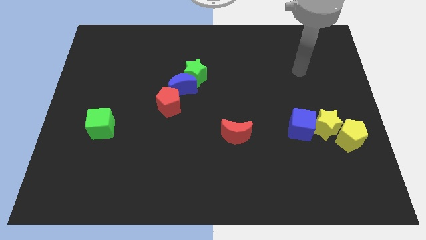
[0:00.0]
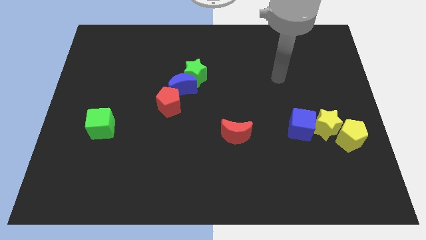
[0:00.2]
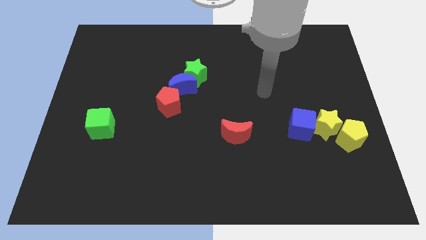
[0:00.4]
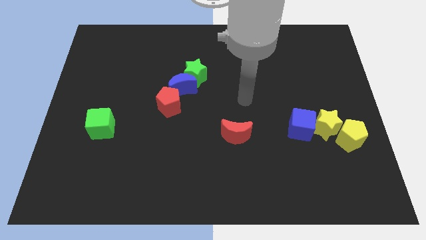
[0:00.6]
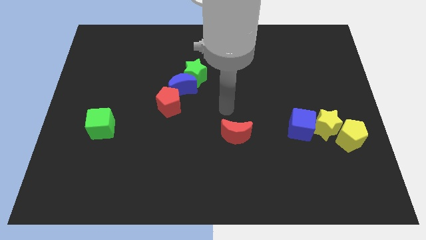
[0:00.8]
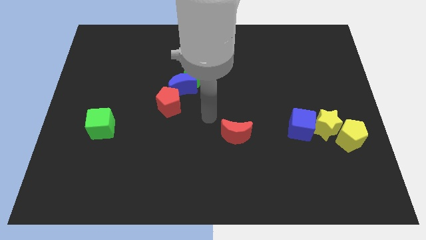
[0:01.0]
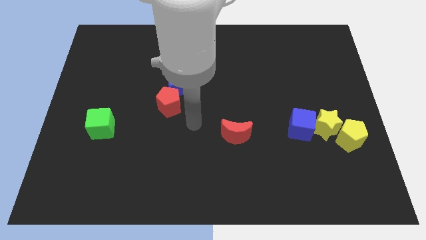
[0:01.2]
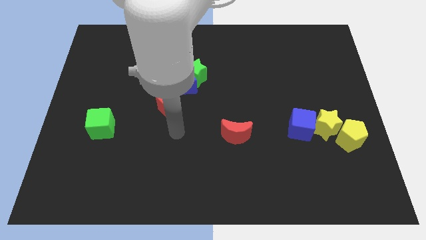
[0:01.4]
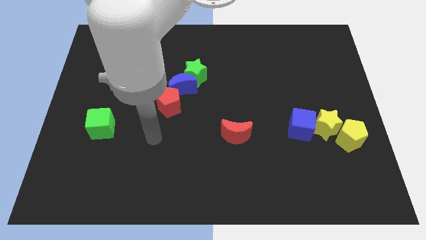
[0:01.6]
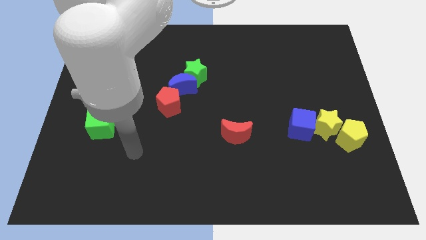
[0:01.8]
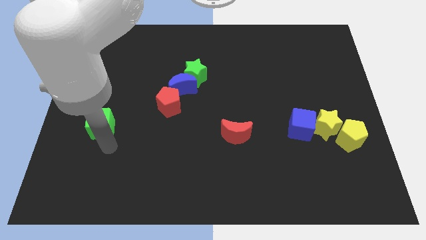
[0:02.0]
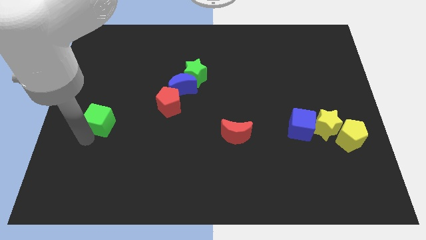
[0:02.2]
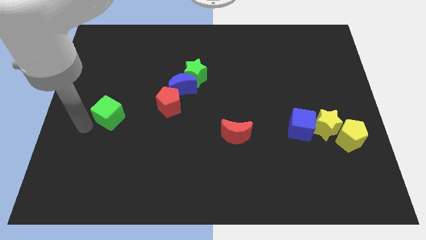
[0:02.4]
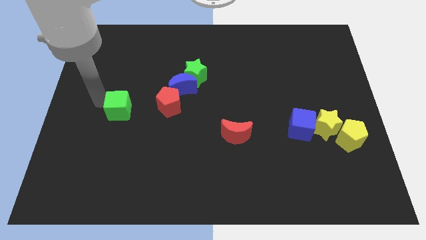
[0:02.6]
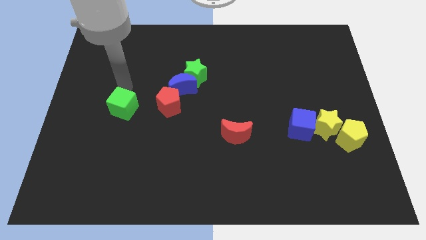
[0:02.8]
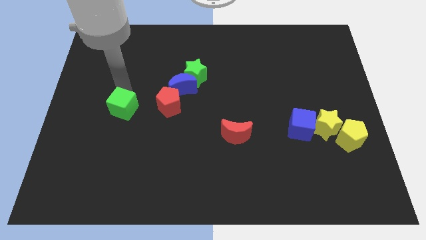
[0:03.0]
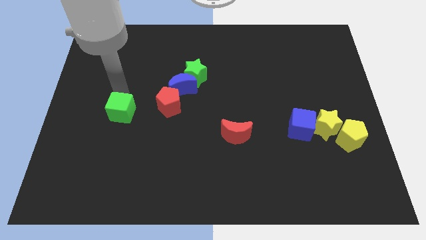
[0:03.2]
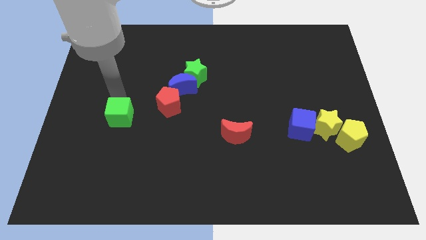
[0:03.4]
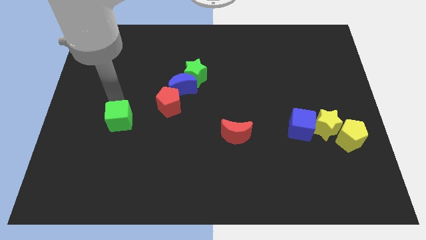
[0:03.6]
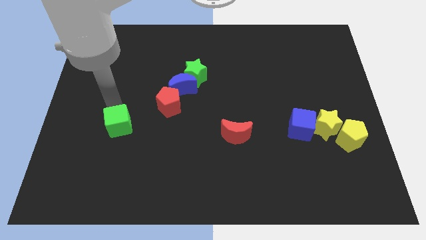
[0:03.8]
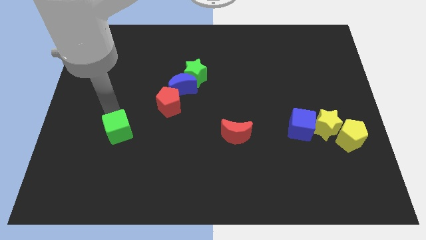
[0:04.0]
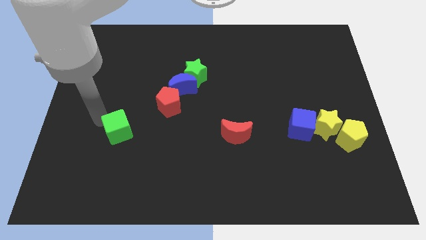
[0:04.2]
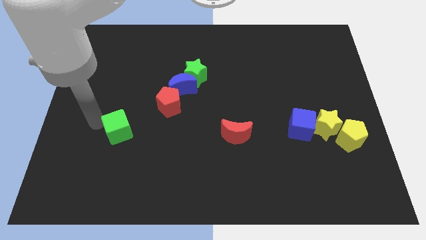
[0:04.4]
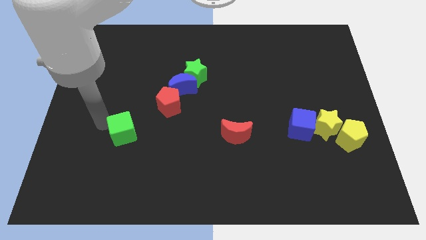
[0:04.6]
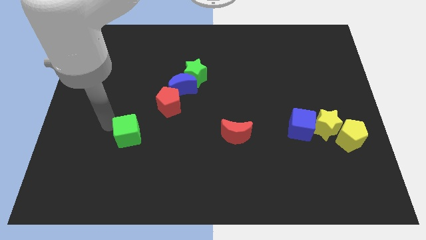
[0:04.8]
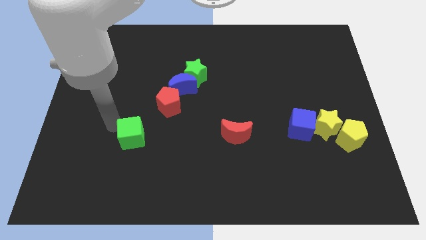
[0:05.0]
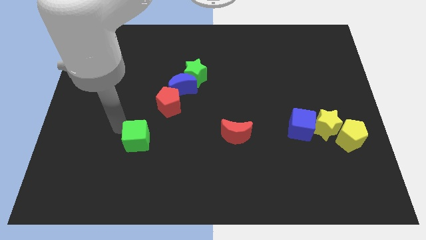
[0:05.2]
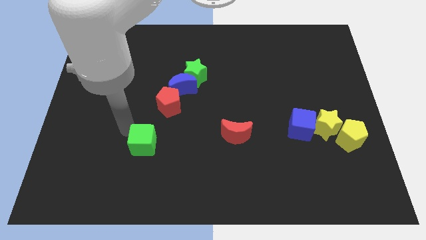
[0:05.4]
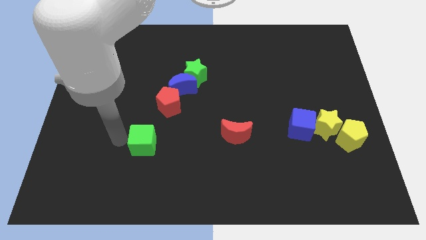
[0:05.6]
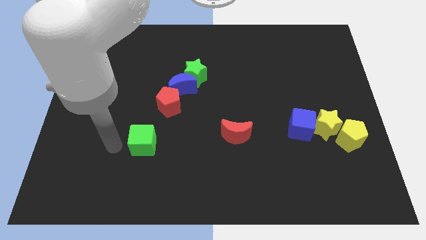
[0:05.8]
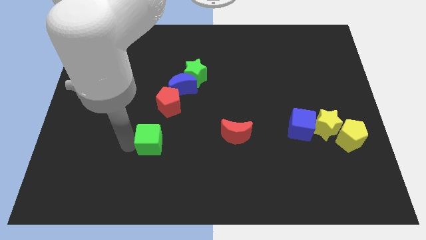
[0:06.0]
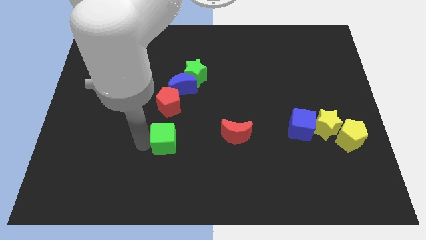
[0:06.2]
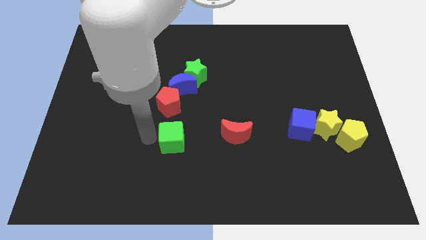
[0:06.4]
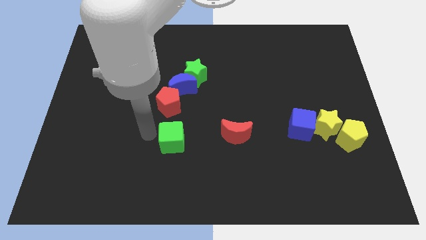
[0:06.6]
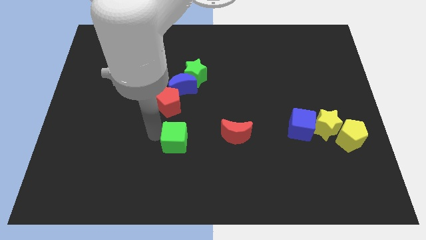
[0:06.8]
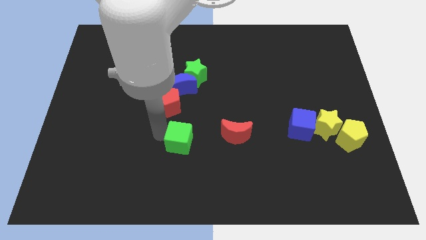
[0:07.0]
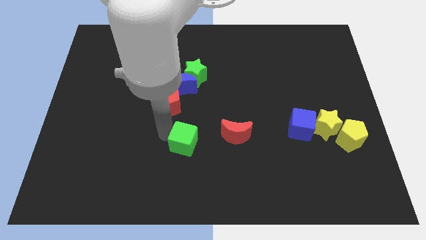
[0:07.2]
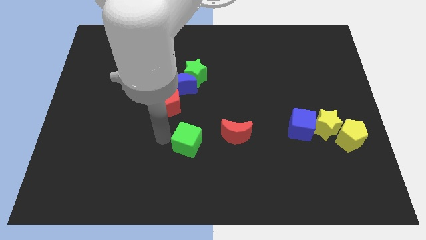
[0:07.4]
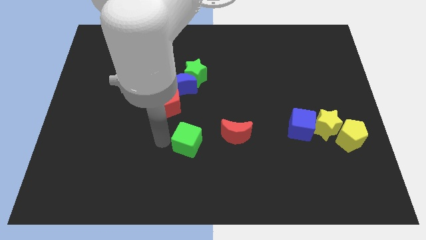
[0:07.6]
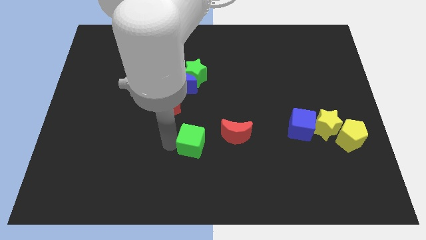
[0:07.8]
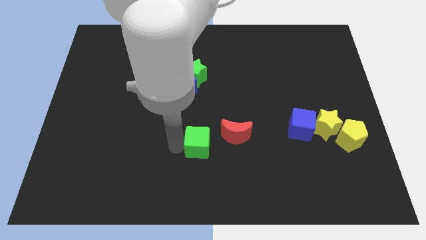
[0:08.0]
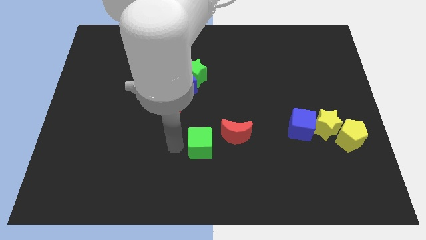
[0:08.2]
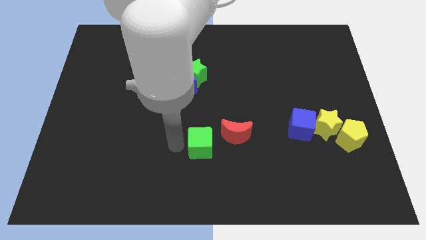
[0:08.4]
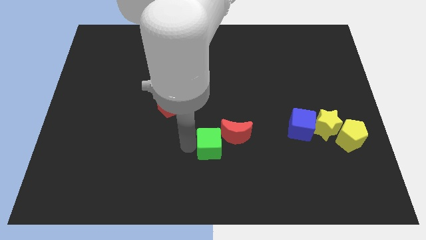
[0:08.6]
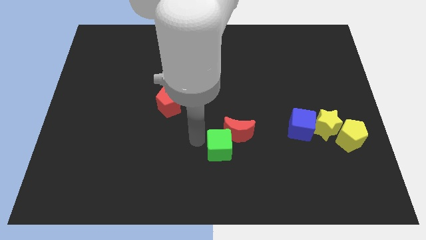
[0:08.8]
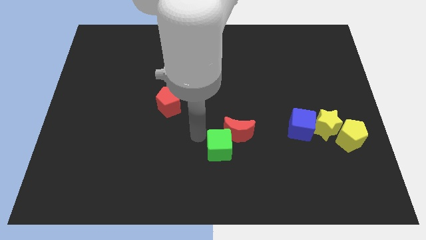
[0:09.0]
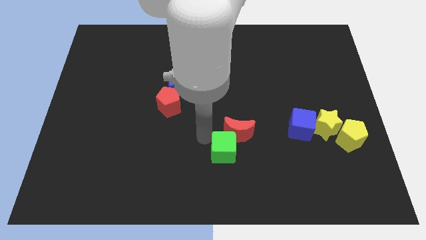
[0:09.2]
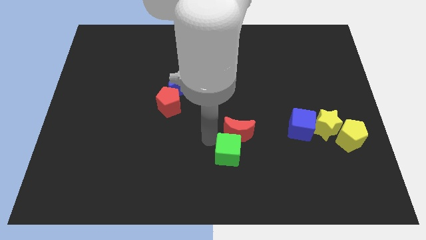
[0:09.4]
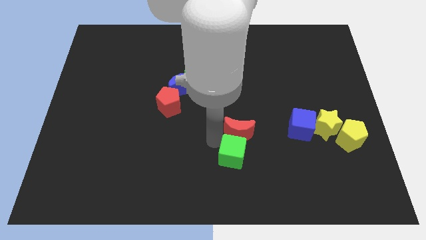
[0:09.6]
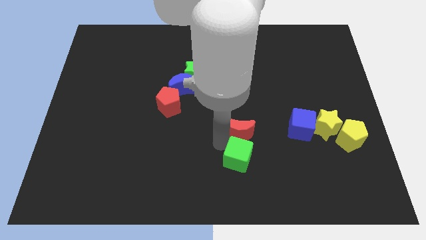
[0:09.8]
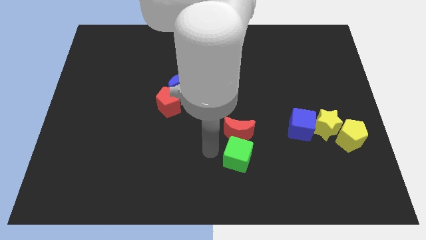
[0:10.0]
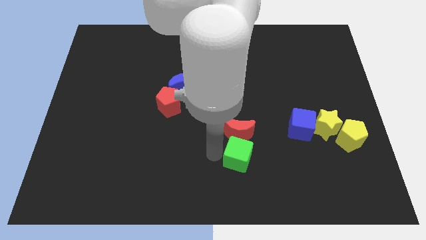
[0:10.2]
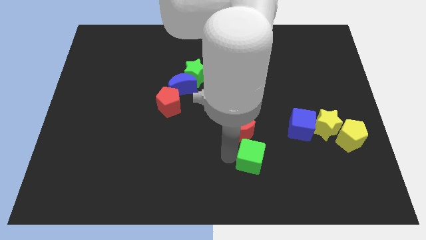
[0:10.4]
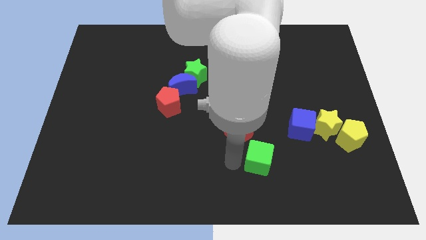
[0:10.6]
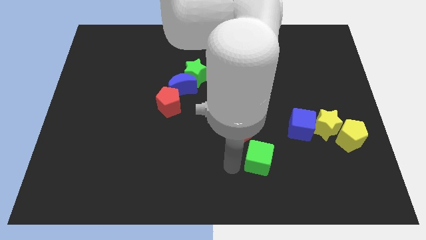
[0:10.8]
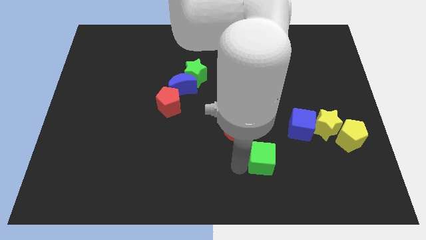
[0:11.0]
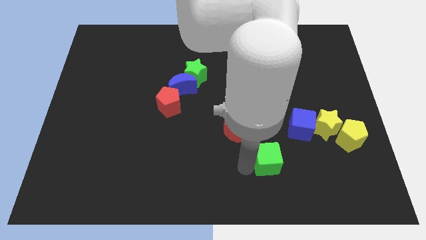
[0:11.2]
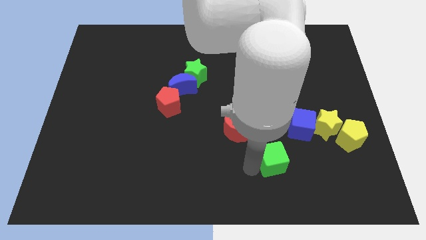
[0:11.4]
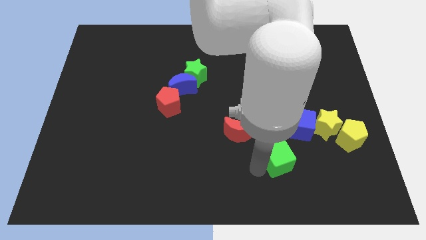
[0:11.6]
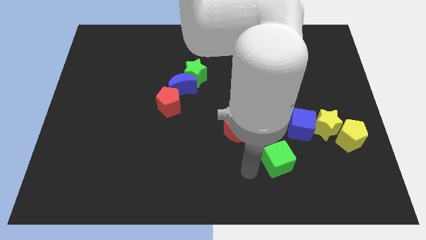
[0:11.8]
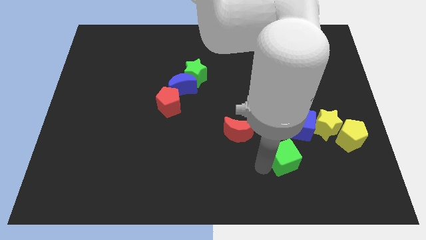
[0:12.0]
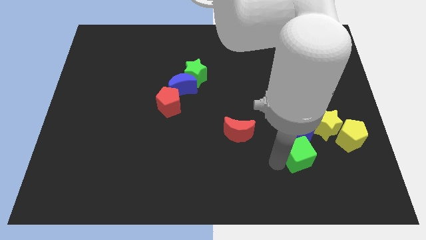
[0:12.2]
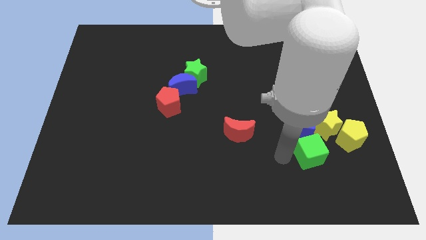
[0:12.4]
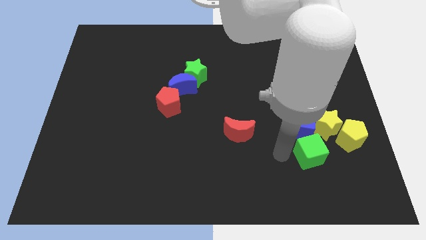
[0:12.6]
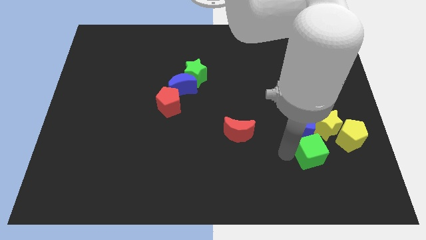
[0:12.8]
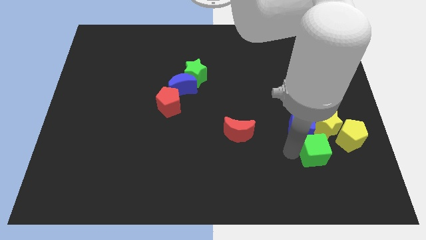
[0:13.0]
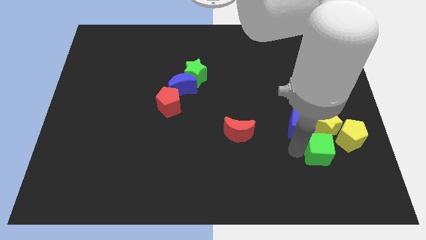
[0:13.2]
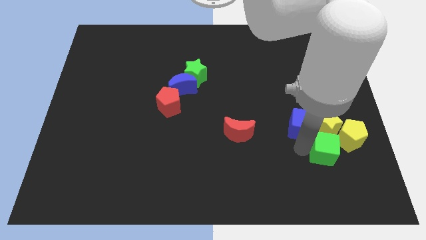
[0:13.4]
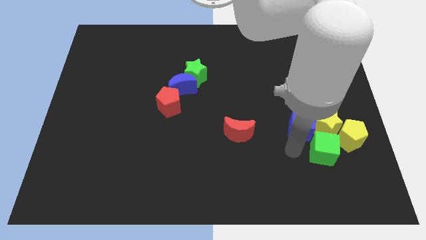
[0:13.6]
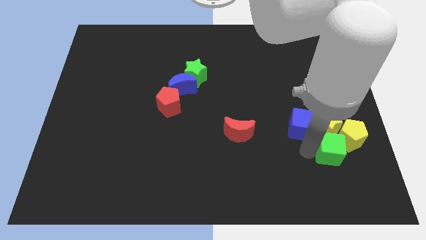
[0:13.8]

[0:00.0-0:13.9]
put the green cube towards the yellow pentagon
